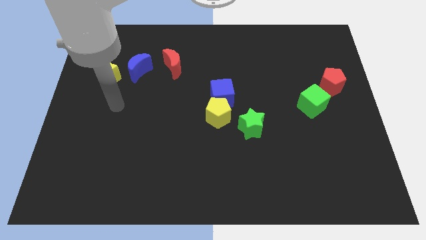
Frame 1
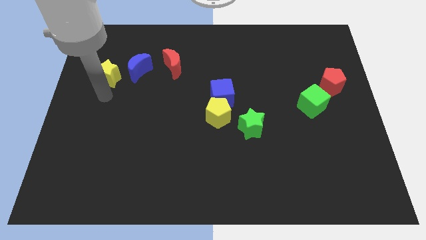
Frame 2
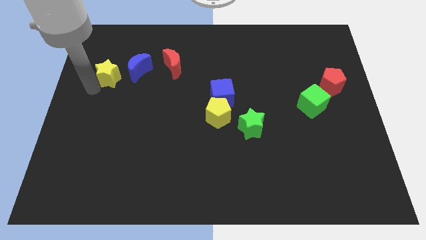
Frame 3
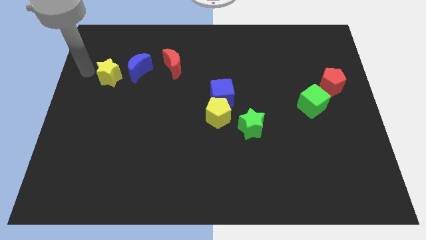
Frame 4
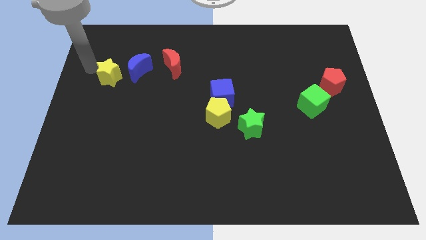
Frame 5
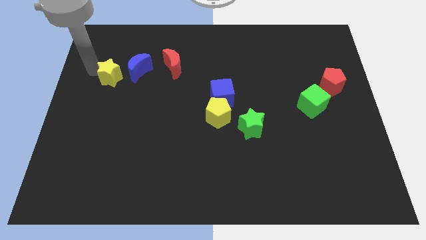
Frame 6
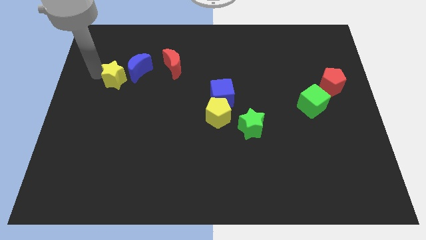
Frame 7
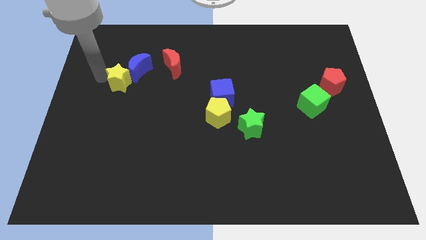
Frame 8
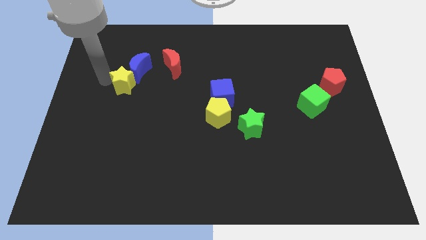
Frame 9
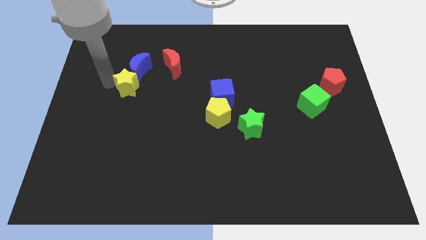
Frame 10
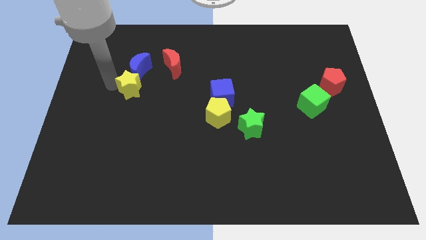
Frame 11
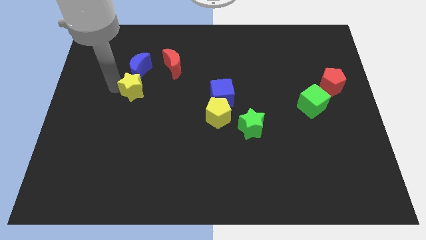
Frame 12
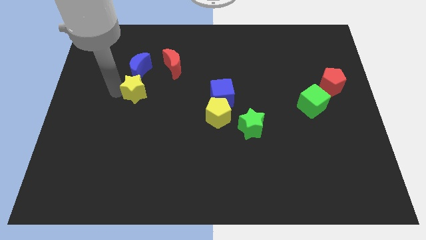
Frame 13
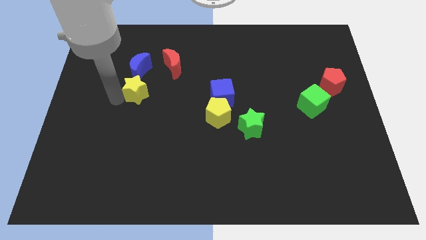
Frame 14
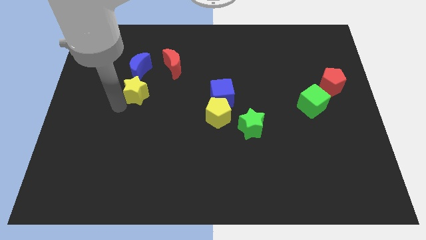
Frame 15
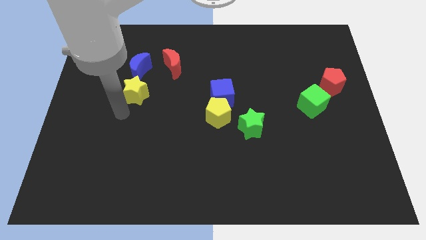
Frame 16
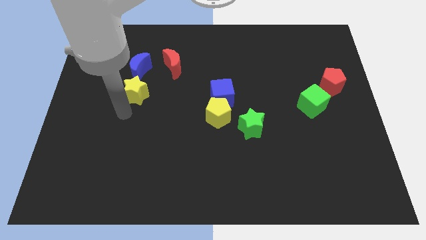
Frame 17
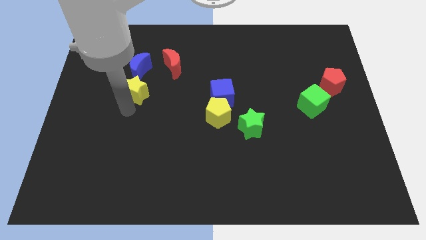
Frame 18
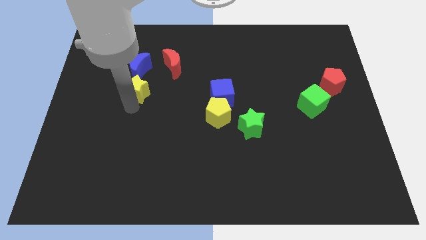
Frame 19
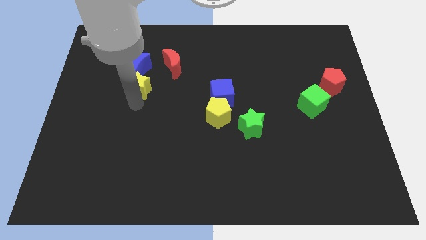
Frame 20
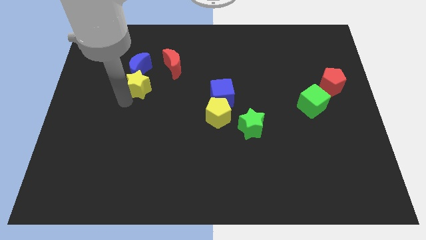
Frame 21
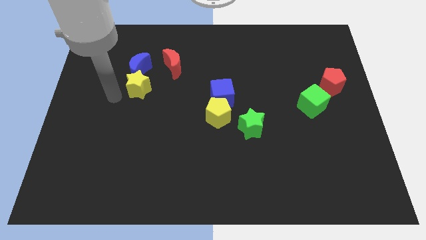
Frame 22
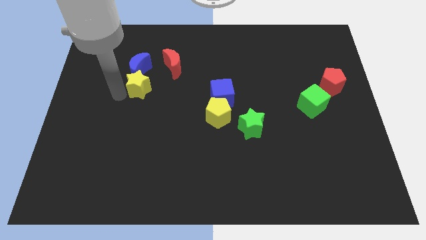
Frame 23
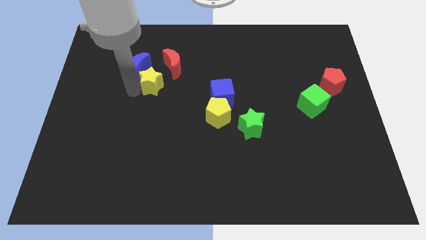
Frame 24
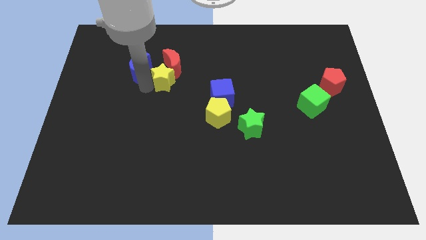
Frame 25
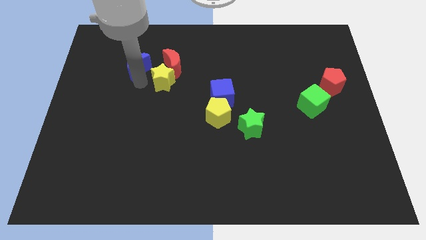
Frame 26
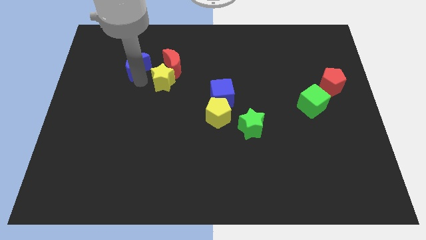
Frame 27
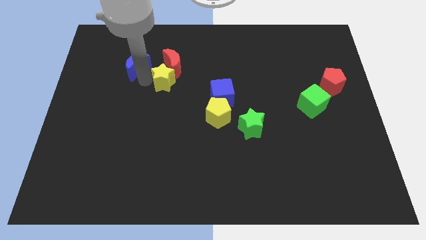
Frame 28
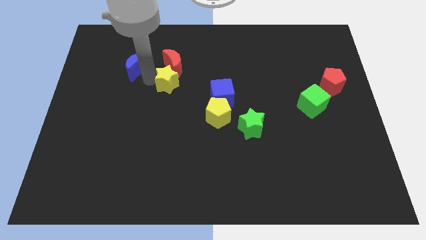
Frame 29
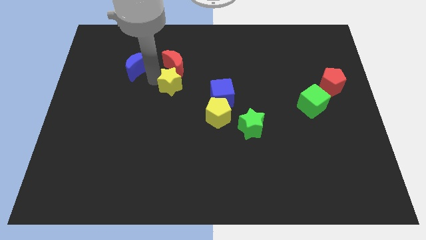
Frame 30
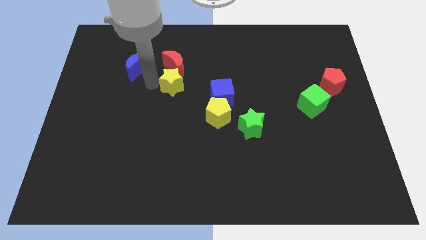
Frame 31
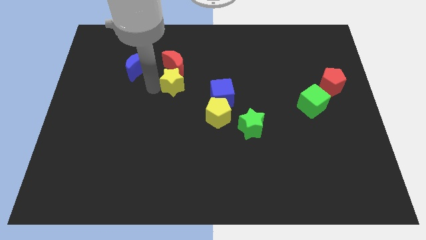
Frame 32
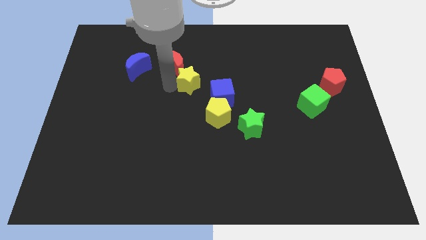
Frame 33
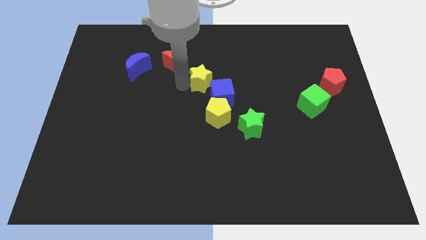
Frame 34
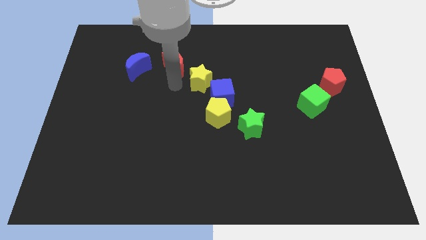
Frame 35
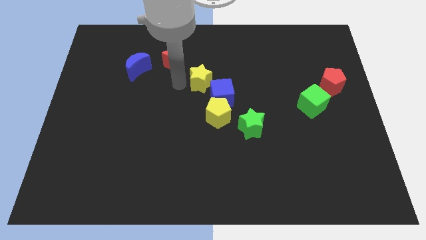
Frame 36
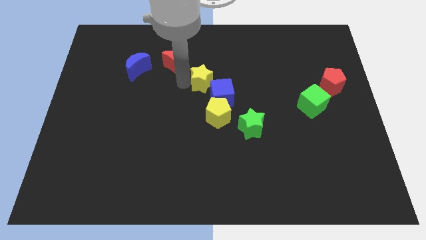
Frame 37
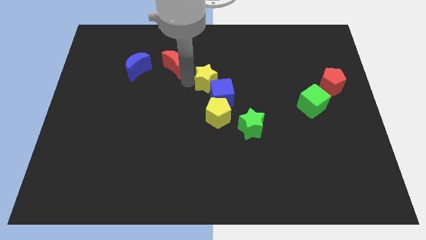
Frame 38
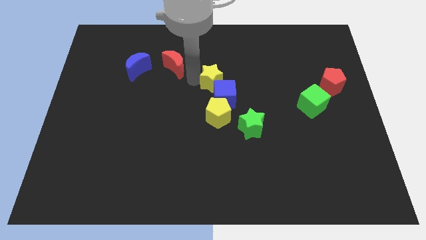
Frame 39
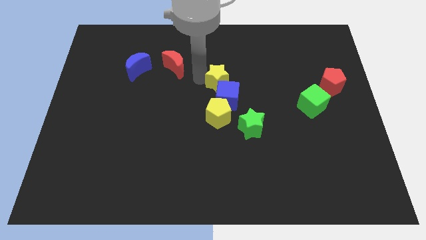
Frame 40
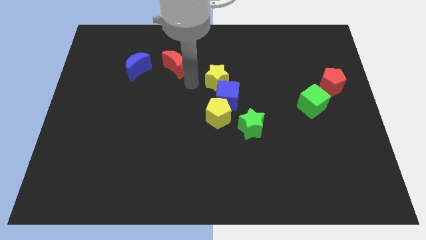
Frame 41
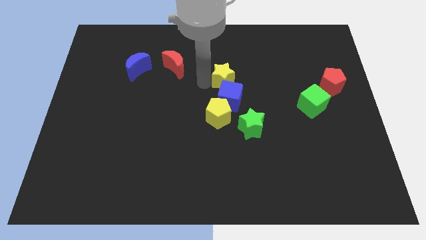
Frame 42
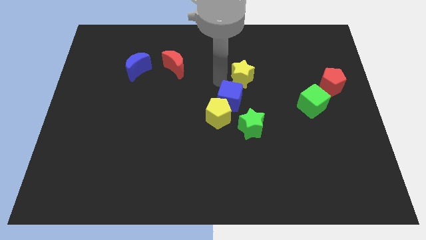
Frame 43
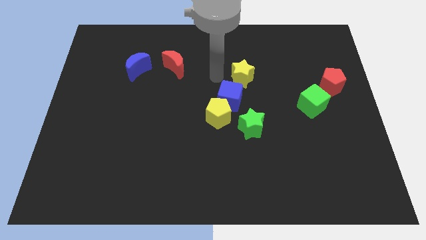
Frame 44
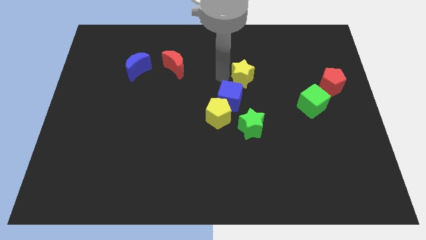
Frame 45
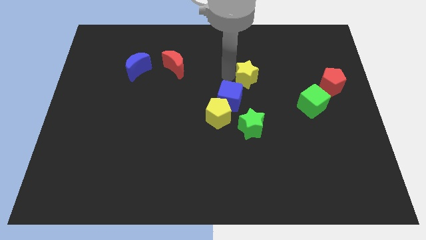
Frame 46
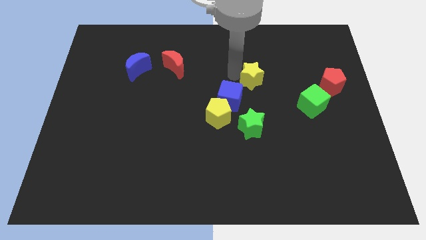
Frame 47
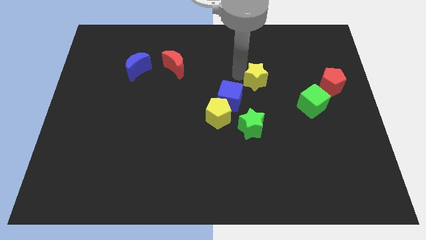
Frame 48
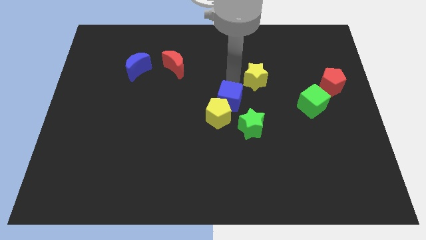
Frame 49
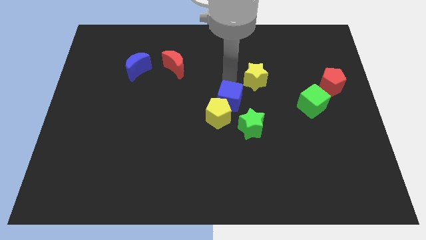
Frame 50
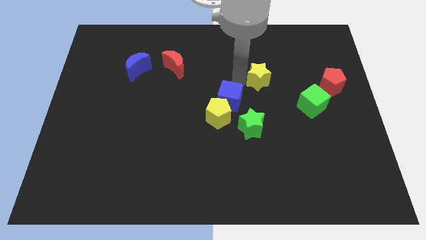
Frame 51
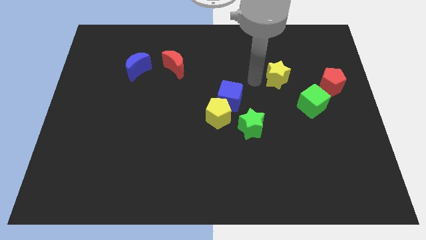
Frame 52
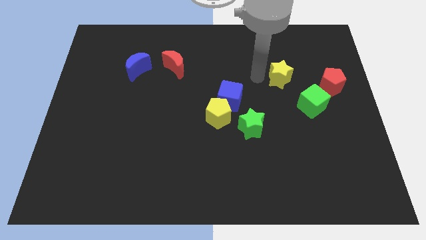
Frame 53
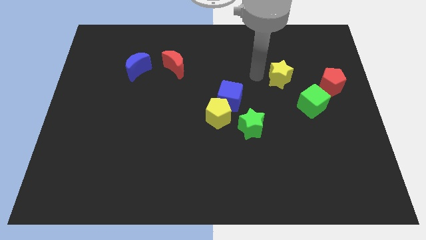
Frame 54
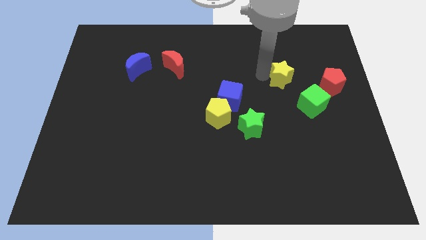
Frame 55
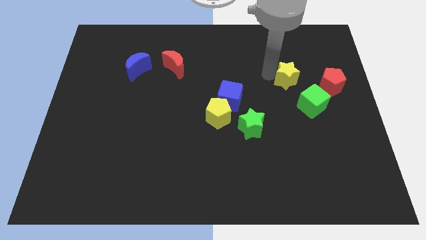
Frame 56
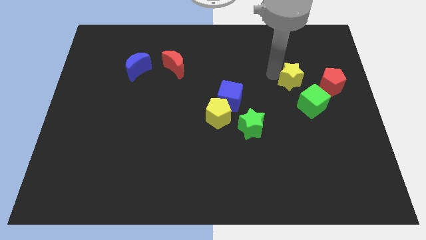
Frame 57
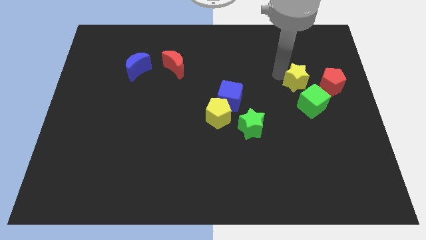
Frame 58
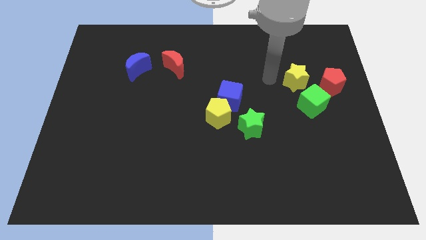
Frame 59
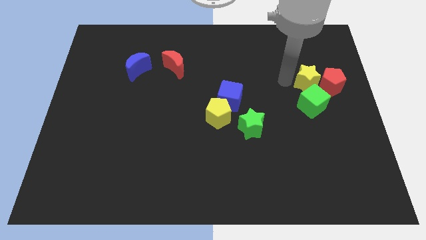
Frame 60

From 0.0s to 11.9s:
put the yellow star close to the red pentagon

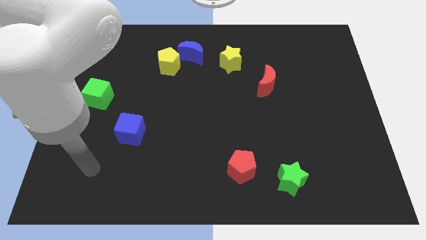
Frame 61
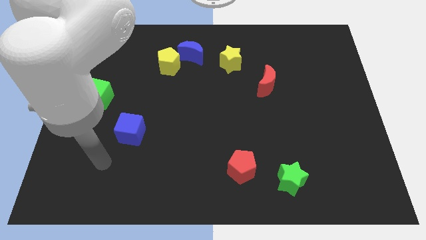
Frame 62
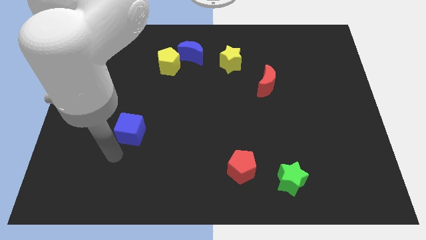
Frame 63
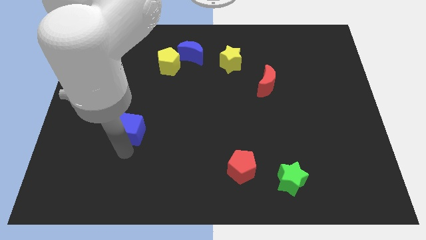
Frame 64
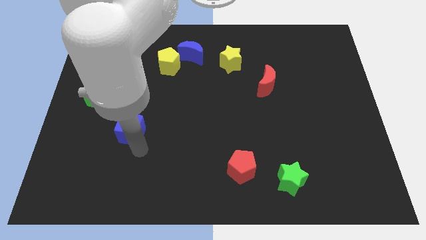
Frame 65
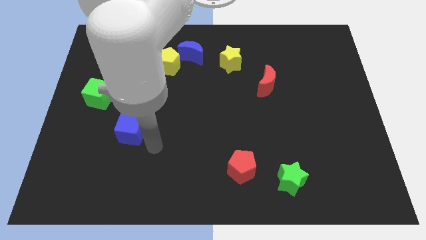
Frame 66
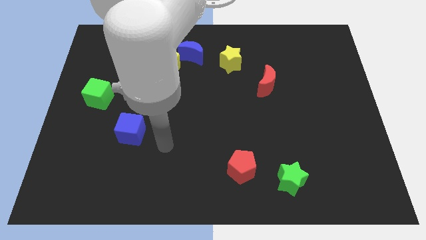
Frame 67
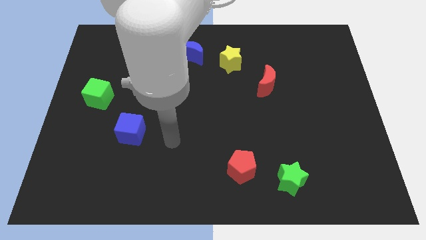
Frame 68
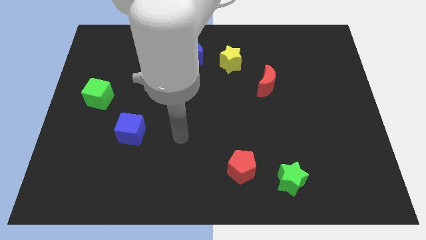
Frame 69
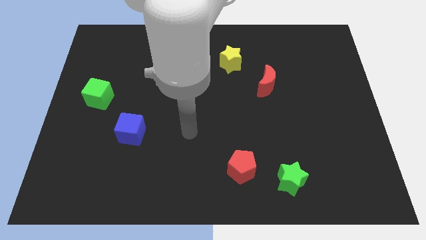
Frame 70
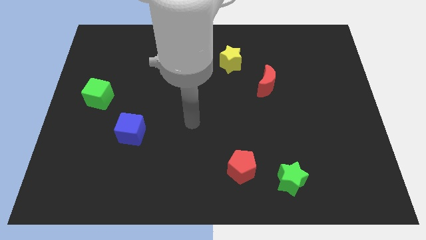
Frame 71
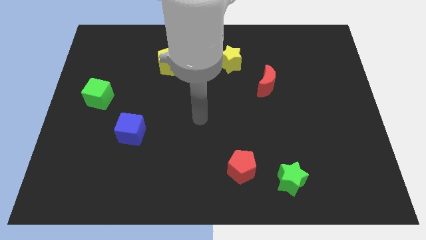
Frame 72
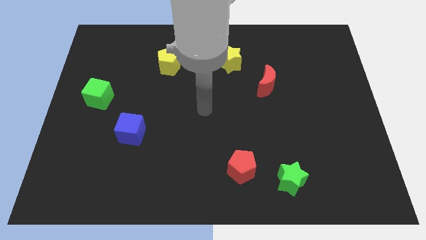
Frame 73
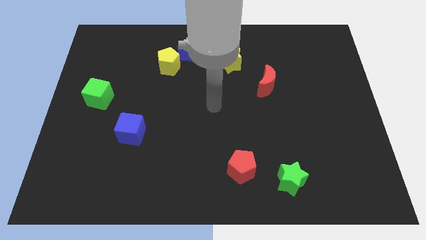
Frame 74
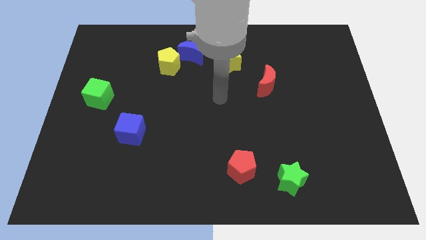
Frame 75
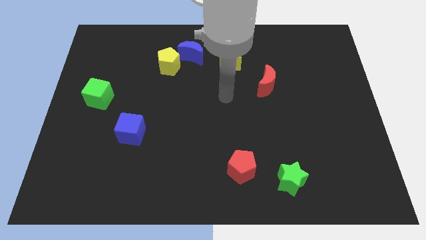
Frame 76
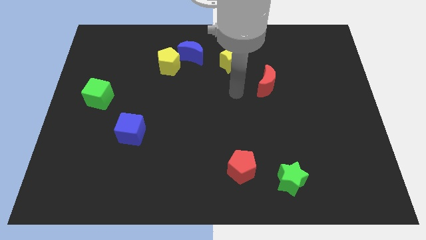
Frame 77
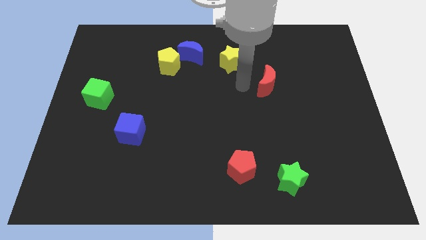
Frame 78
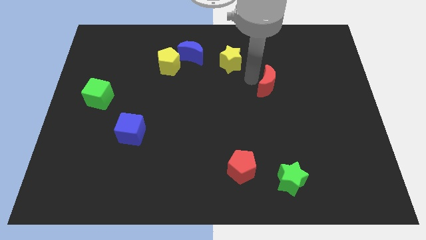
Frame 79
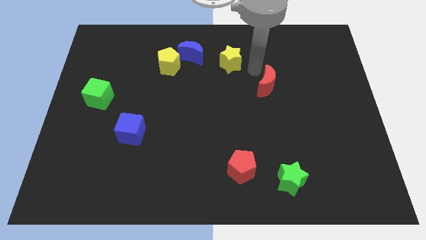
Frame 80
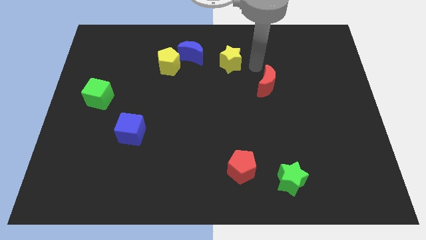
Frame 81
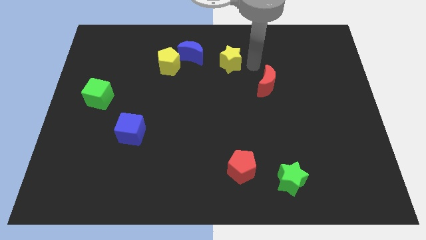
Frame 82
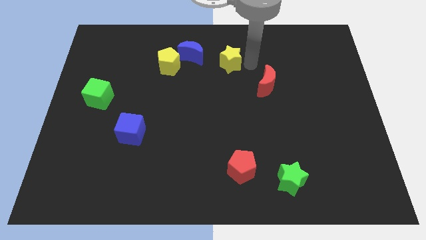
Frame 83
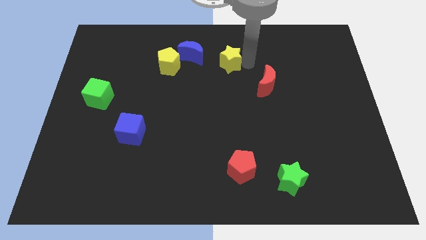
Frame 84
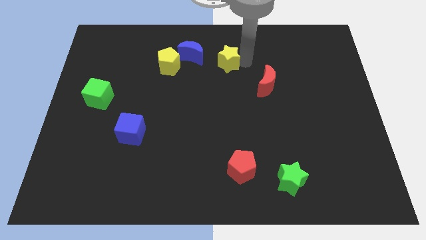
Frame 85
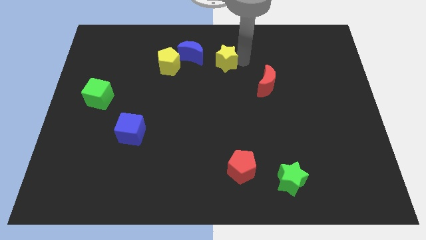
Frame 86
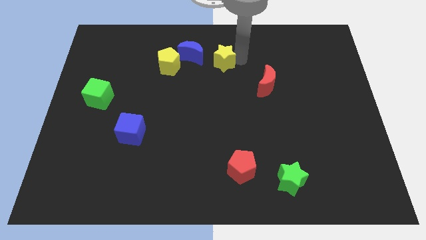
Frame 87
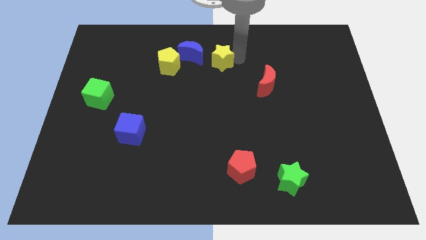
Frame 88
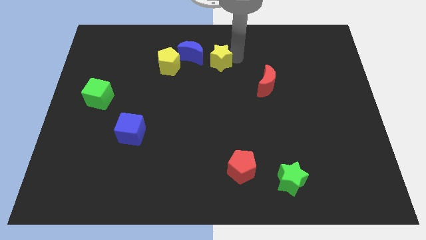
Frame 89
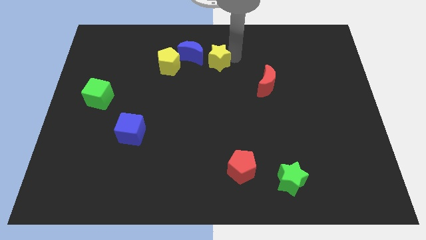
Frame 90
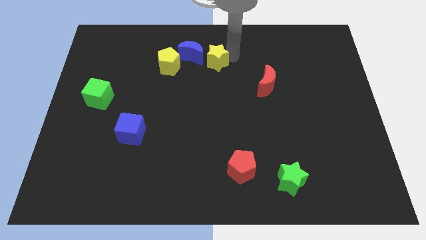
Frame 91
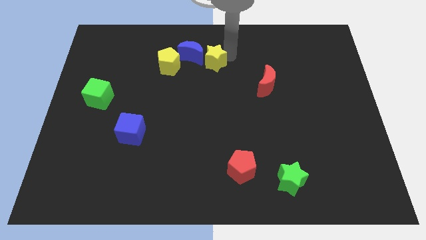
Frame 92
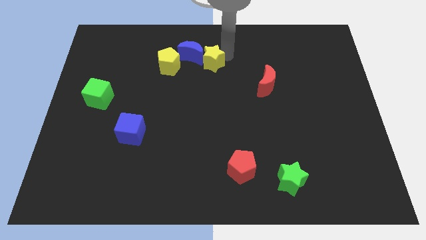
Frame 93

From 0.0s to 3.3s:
push the yellow star towards the blue moon
